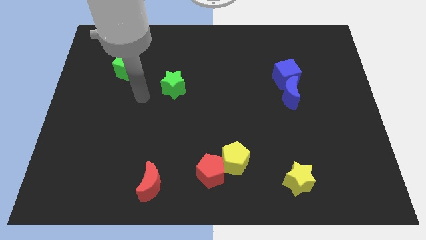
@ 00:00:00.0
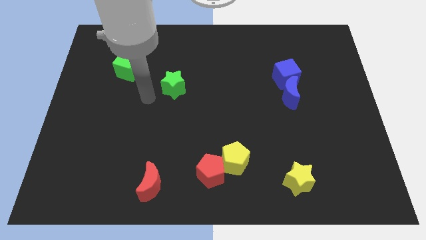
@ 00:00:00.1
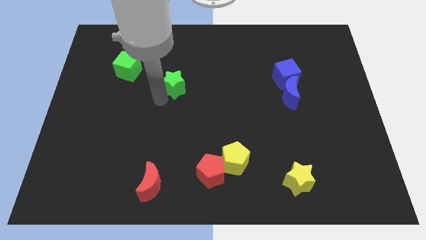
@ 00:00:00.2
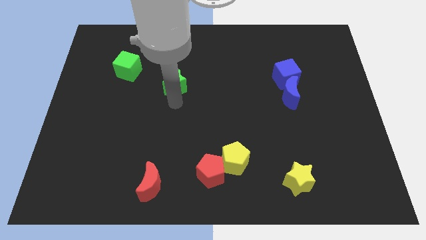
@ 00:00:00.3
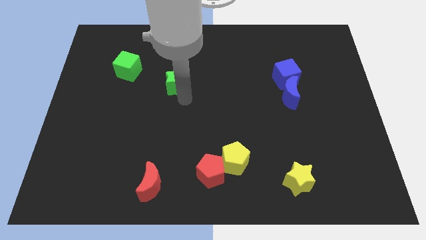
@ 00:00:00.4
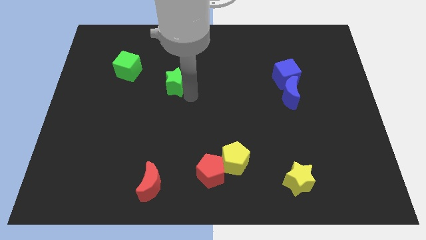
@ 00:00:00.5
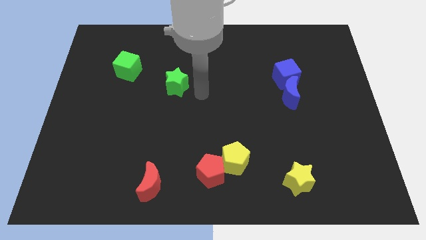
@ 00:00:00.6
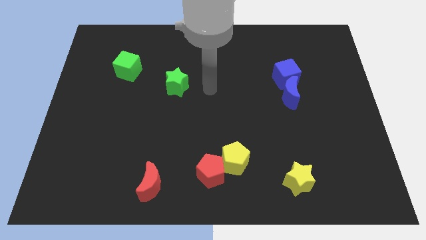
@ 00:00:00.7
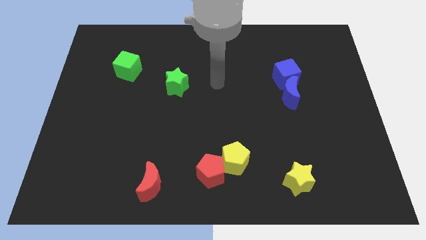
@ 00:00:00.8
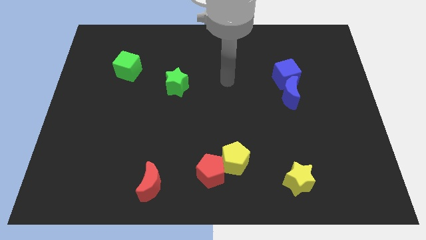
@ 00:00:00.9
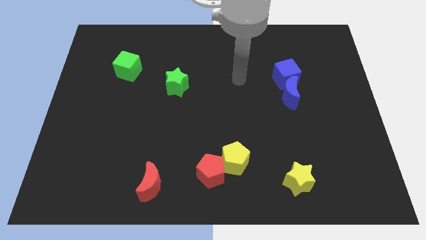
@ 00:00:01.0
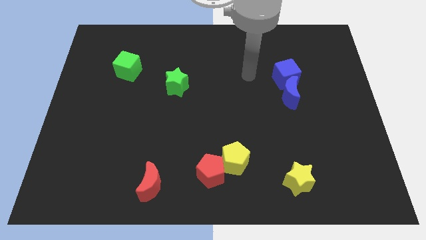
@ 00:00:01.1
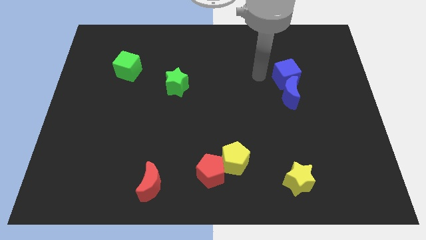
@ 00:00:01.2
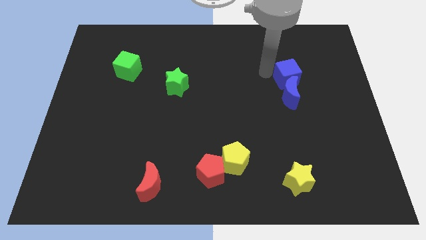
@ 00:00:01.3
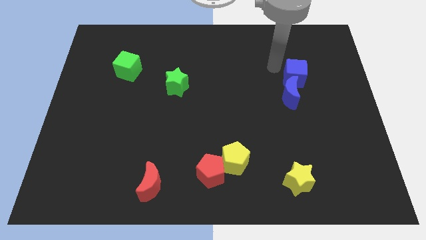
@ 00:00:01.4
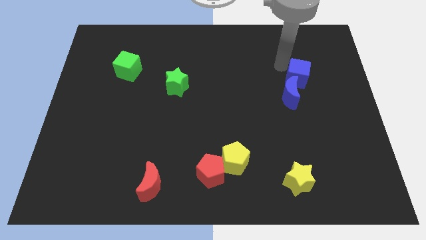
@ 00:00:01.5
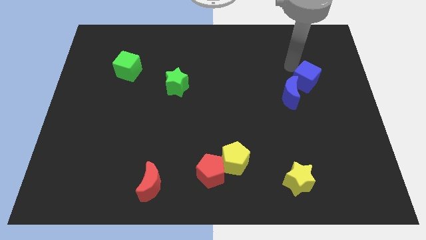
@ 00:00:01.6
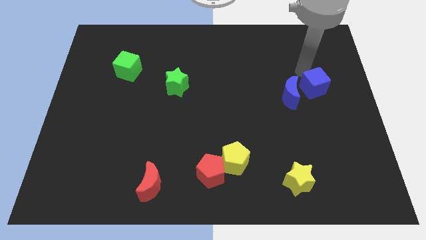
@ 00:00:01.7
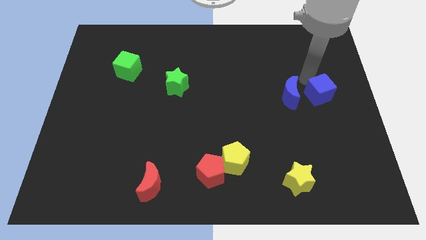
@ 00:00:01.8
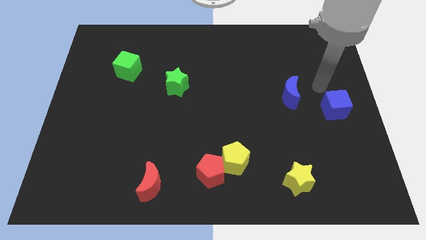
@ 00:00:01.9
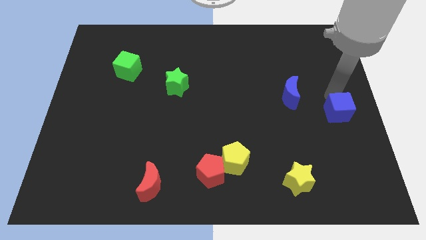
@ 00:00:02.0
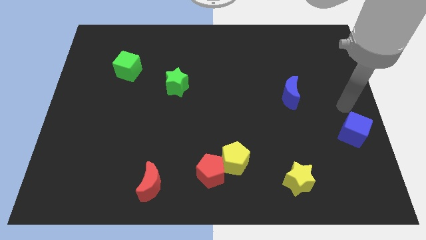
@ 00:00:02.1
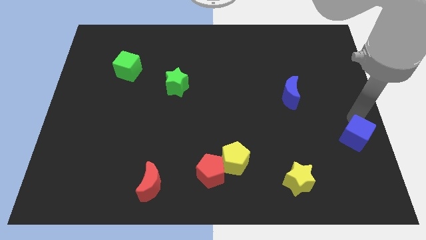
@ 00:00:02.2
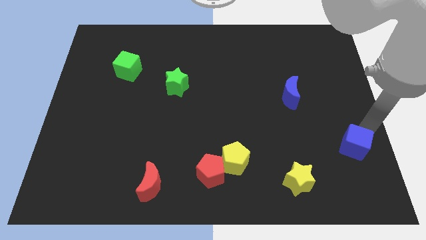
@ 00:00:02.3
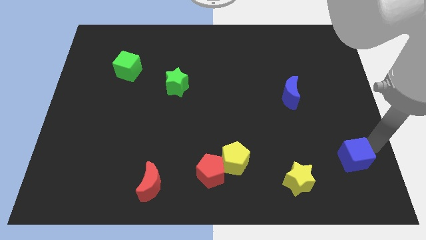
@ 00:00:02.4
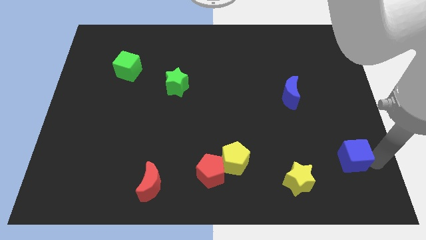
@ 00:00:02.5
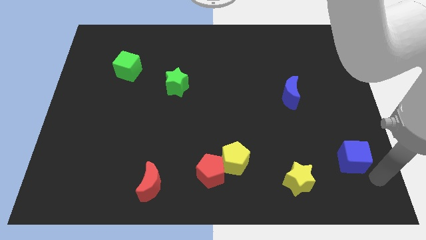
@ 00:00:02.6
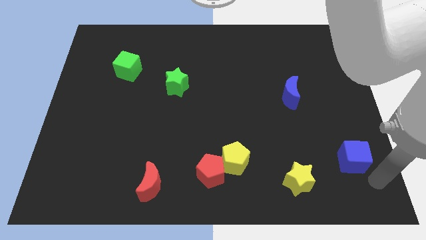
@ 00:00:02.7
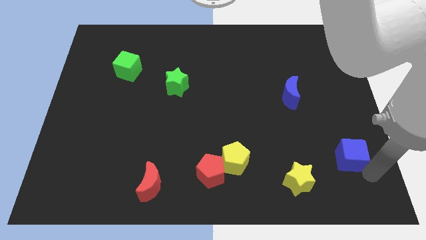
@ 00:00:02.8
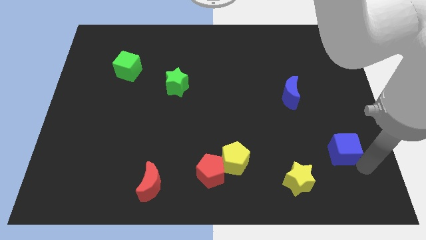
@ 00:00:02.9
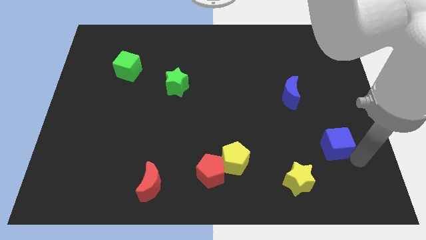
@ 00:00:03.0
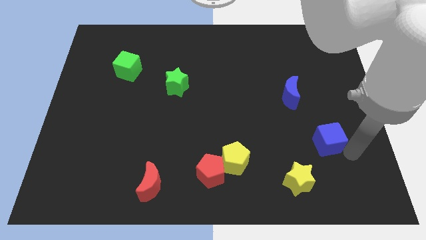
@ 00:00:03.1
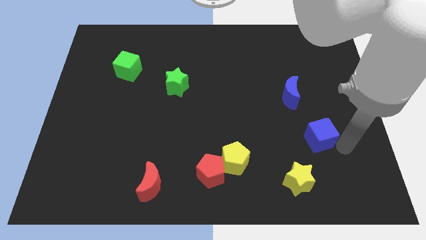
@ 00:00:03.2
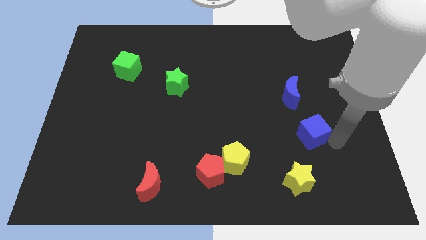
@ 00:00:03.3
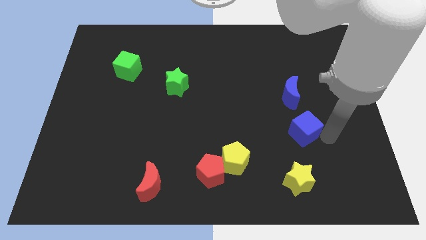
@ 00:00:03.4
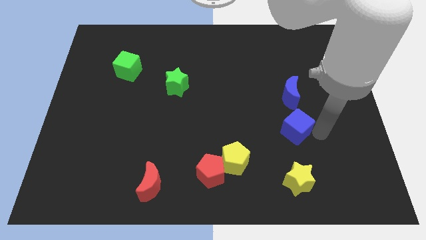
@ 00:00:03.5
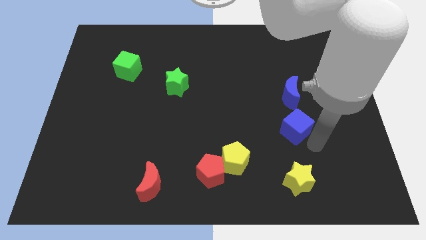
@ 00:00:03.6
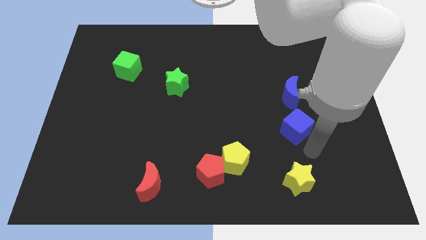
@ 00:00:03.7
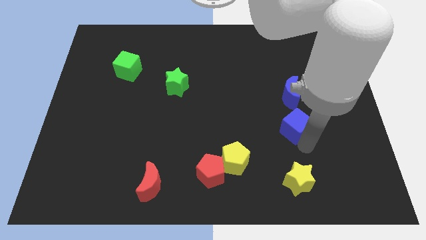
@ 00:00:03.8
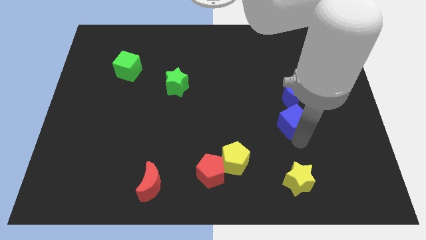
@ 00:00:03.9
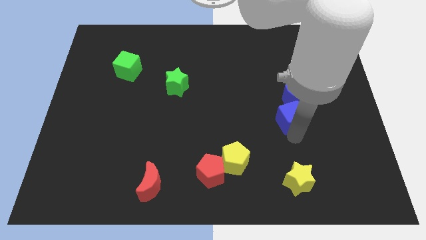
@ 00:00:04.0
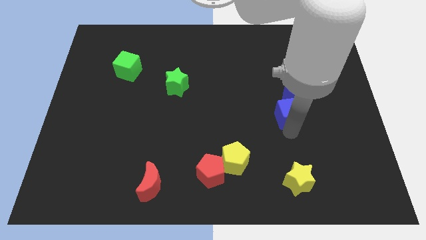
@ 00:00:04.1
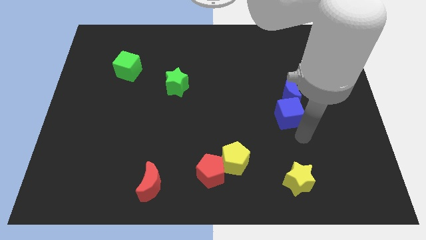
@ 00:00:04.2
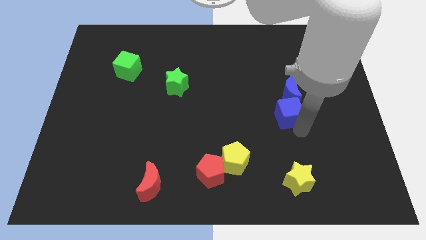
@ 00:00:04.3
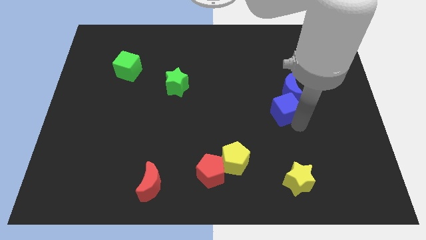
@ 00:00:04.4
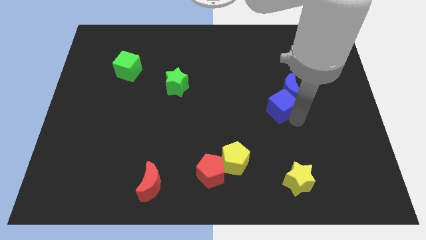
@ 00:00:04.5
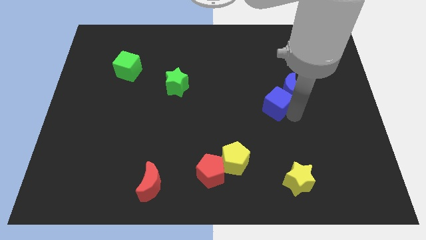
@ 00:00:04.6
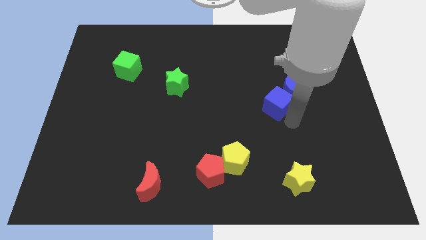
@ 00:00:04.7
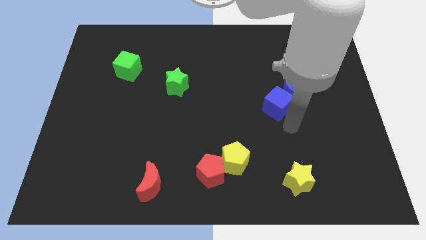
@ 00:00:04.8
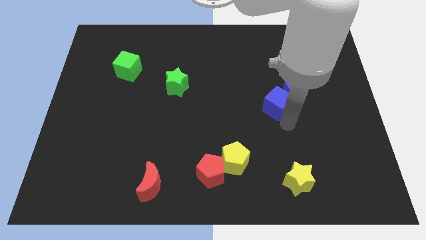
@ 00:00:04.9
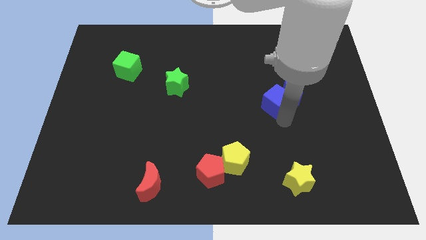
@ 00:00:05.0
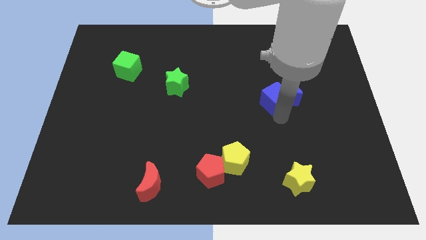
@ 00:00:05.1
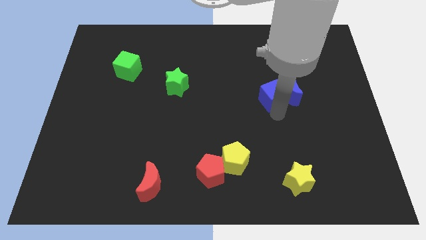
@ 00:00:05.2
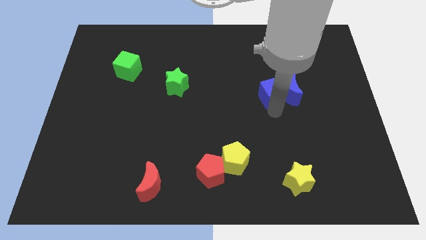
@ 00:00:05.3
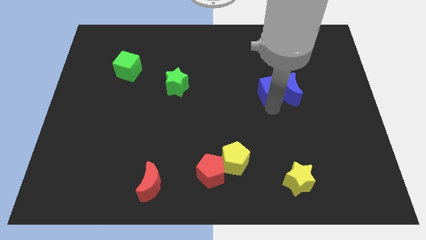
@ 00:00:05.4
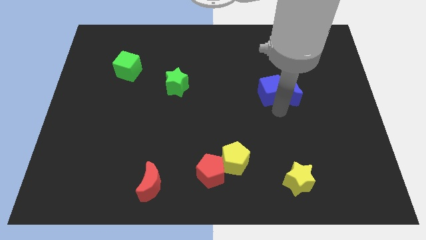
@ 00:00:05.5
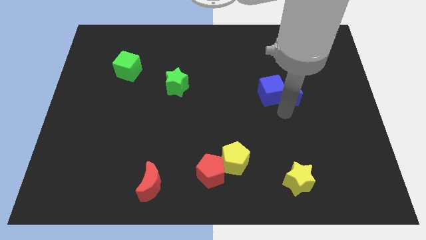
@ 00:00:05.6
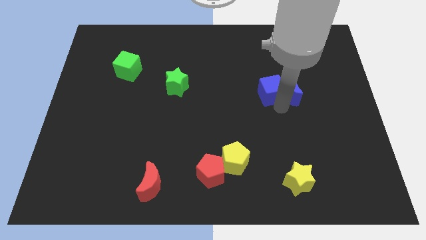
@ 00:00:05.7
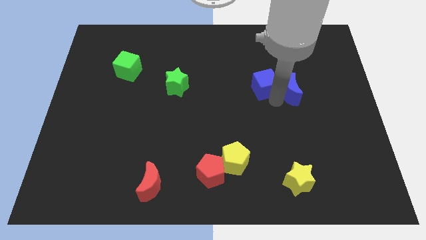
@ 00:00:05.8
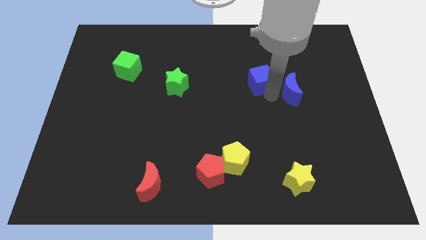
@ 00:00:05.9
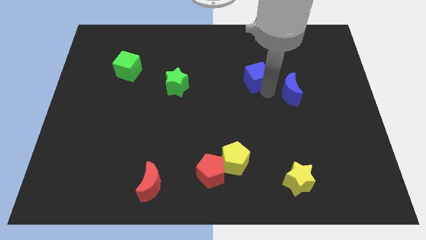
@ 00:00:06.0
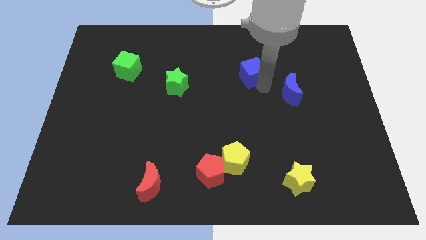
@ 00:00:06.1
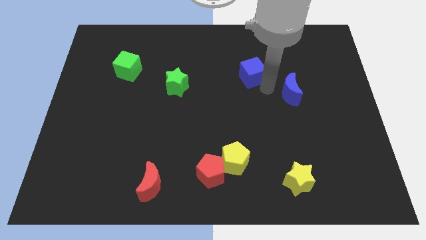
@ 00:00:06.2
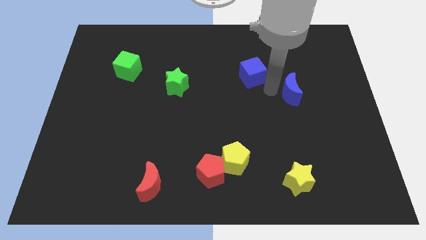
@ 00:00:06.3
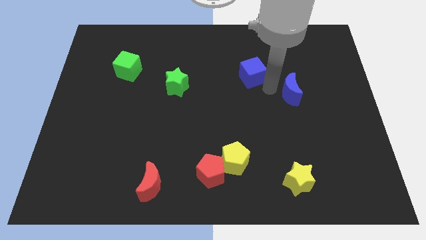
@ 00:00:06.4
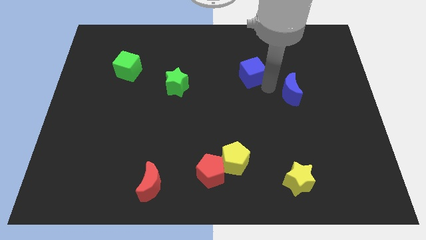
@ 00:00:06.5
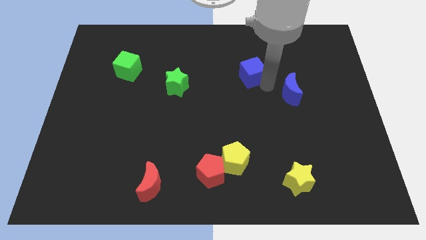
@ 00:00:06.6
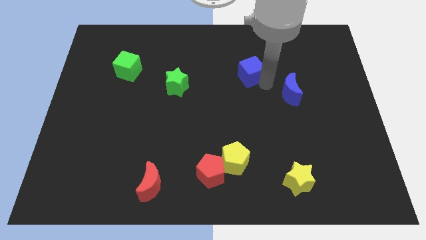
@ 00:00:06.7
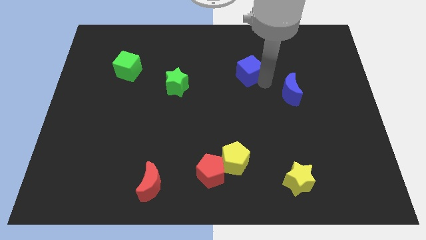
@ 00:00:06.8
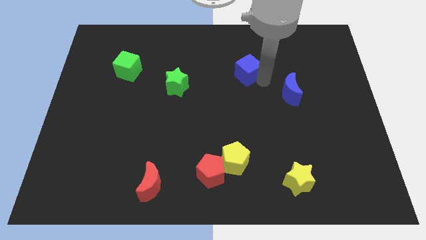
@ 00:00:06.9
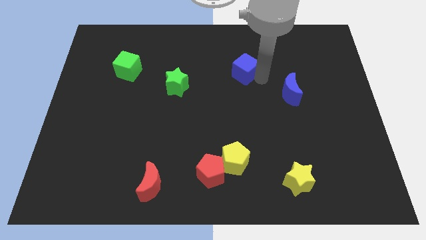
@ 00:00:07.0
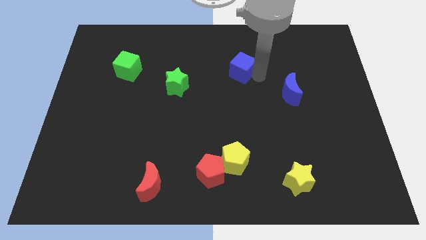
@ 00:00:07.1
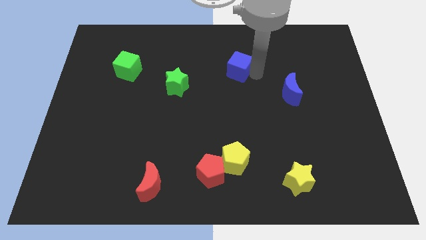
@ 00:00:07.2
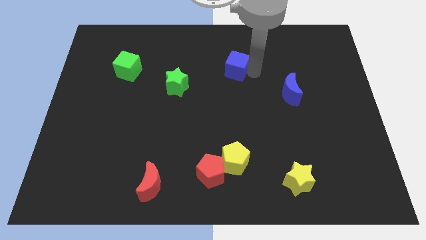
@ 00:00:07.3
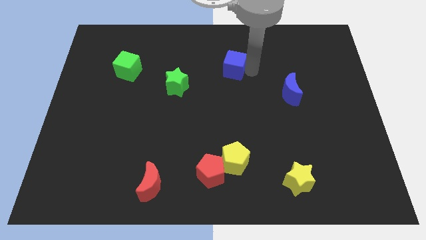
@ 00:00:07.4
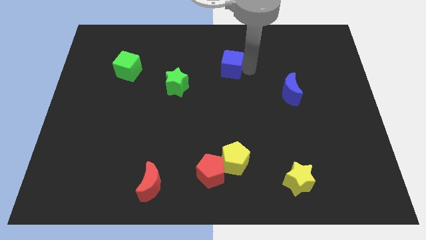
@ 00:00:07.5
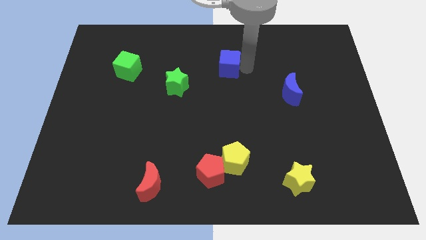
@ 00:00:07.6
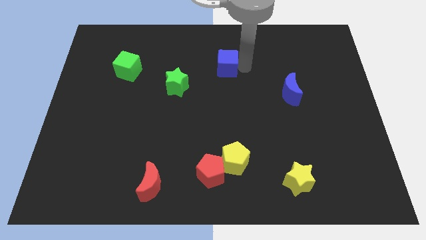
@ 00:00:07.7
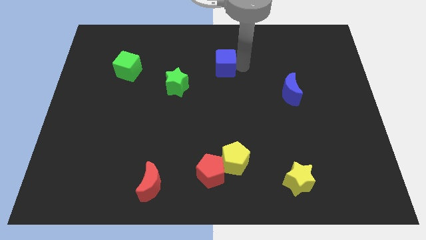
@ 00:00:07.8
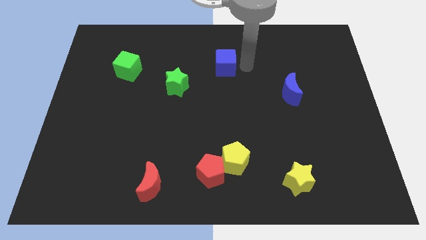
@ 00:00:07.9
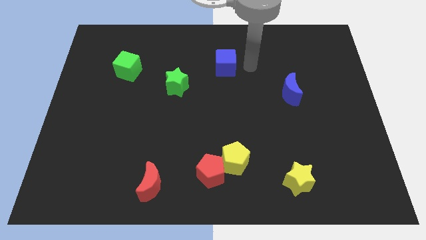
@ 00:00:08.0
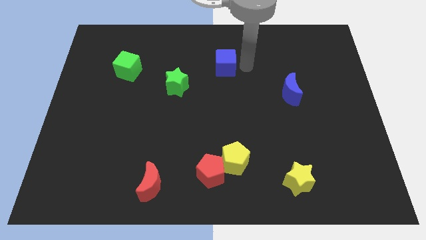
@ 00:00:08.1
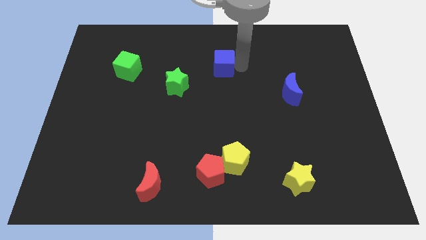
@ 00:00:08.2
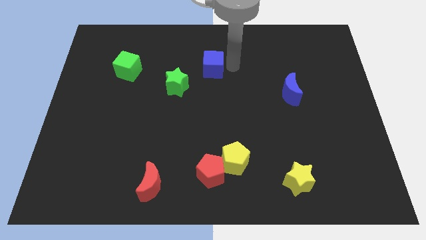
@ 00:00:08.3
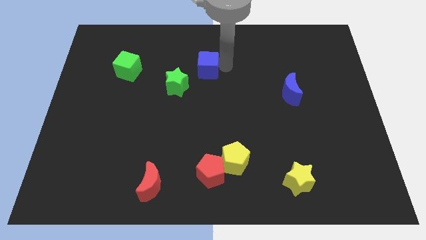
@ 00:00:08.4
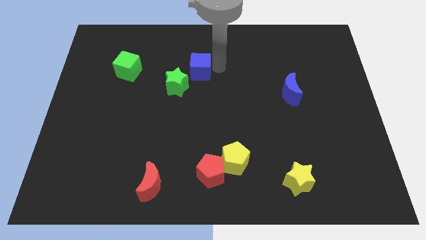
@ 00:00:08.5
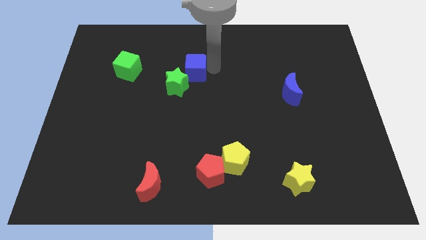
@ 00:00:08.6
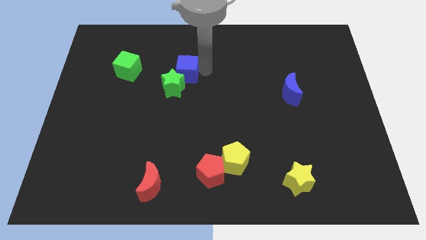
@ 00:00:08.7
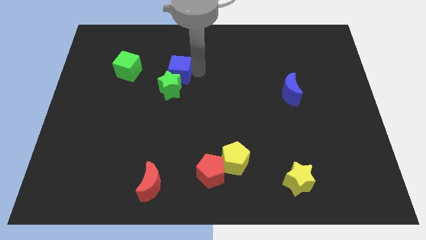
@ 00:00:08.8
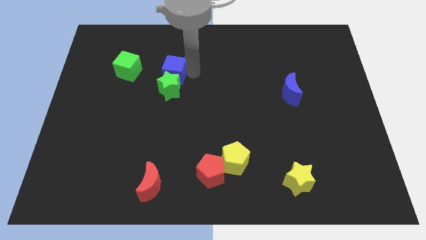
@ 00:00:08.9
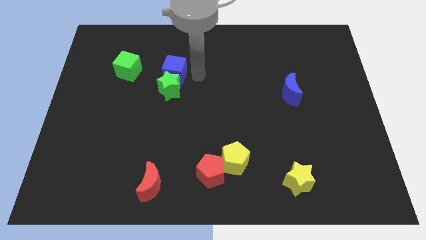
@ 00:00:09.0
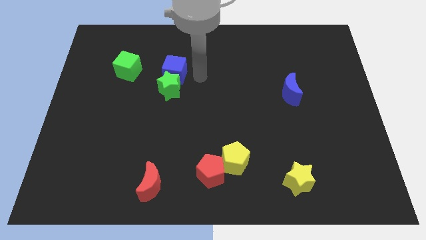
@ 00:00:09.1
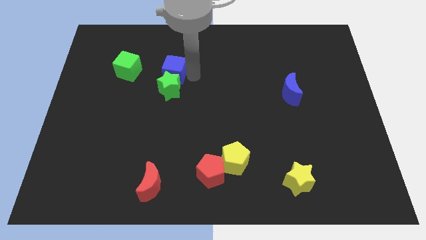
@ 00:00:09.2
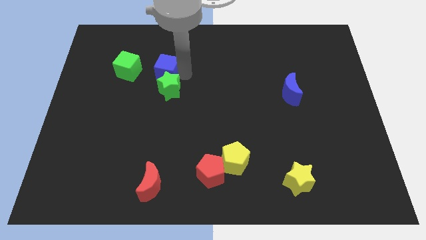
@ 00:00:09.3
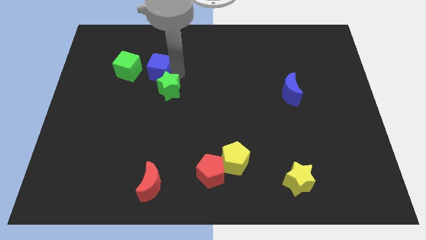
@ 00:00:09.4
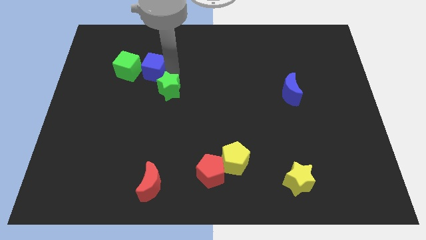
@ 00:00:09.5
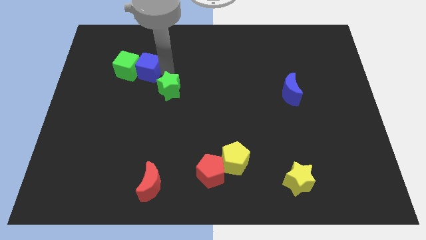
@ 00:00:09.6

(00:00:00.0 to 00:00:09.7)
move the blue cube to the green cube
